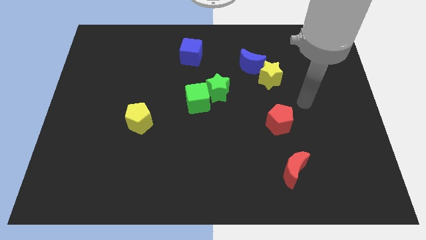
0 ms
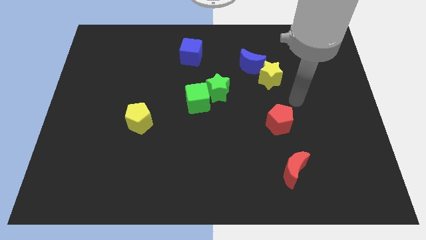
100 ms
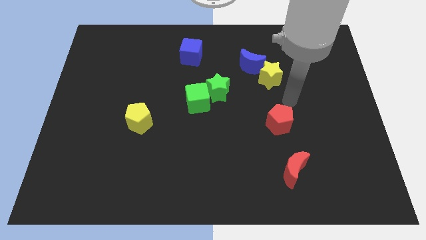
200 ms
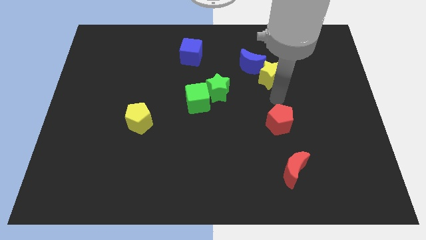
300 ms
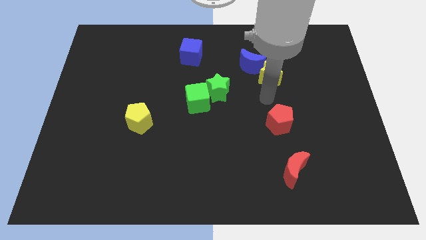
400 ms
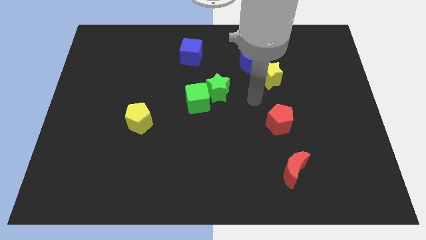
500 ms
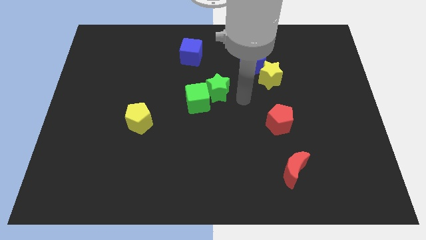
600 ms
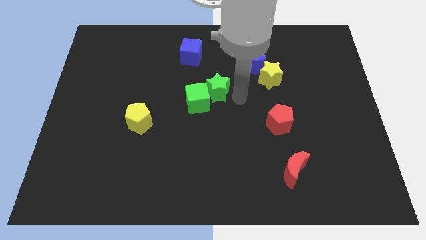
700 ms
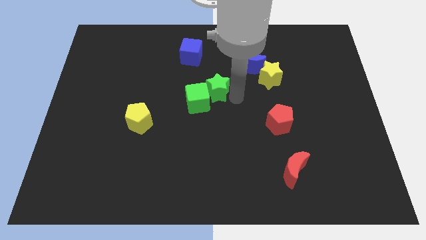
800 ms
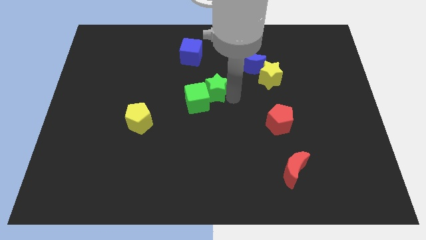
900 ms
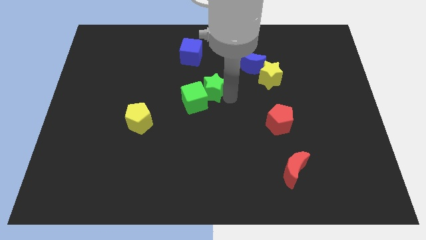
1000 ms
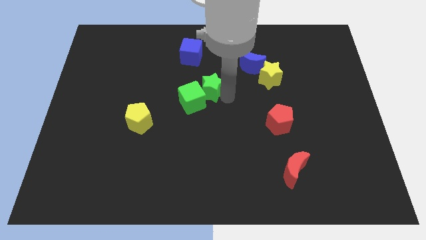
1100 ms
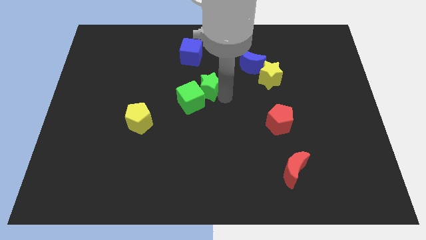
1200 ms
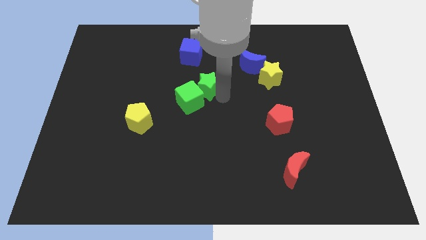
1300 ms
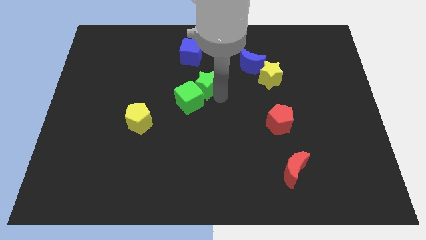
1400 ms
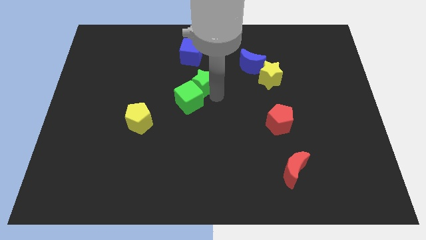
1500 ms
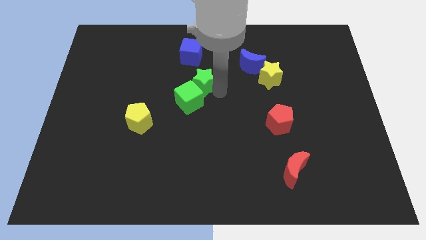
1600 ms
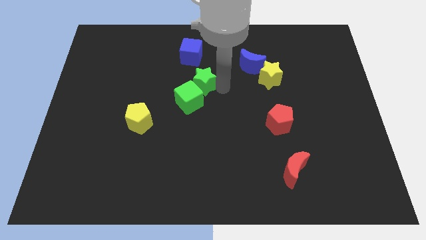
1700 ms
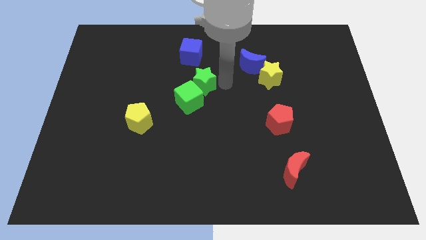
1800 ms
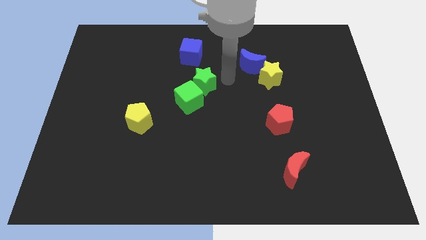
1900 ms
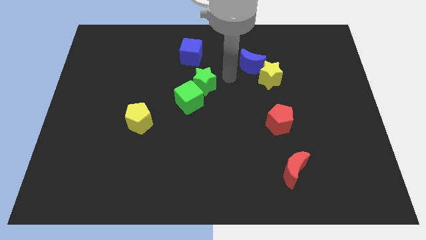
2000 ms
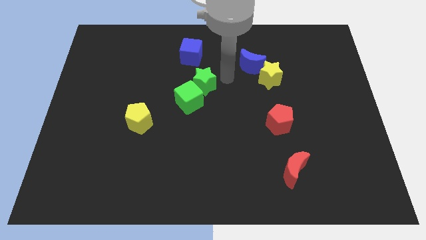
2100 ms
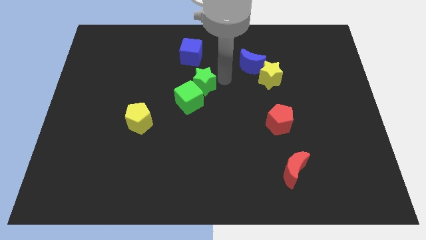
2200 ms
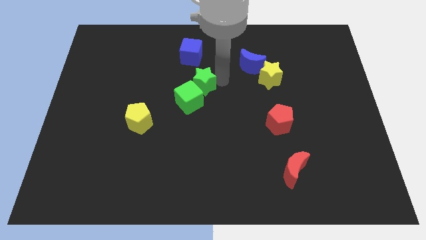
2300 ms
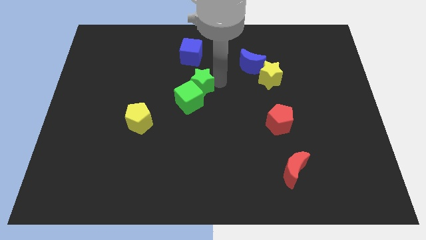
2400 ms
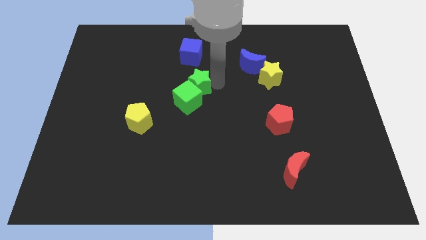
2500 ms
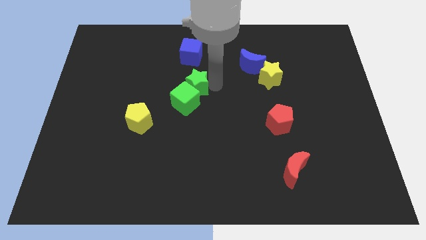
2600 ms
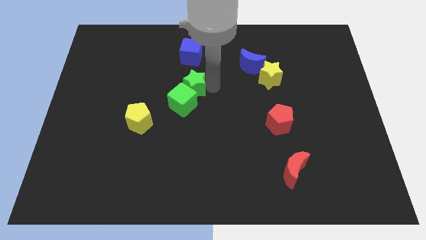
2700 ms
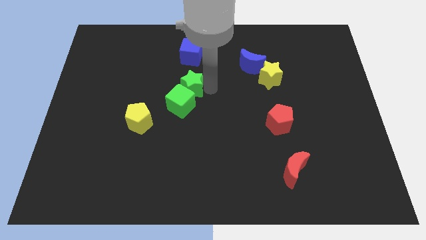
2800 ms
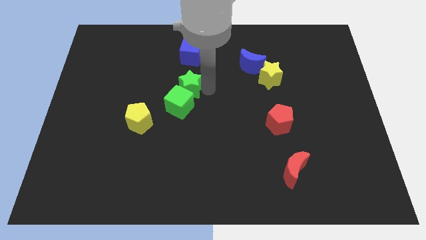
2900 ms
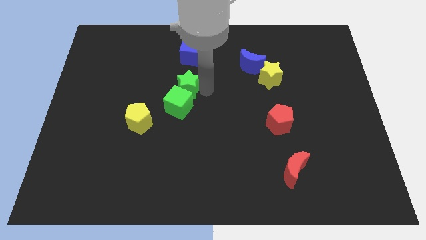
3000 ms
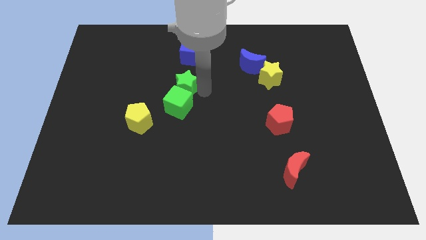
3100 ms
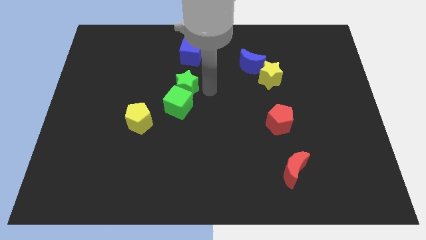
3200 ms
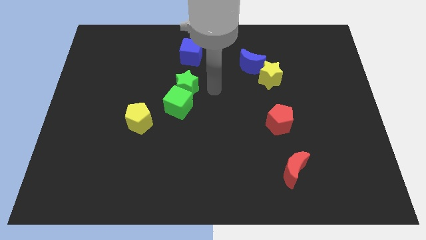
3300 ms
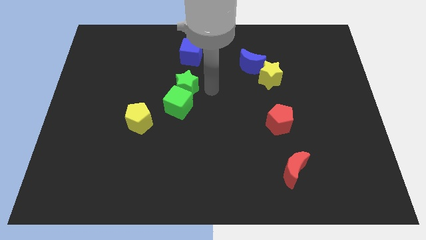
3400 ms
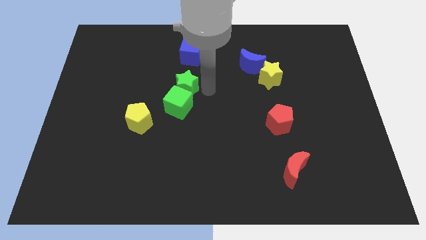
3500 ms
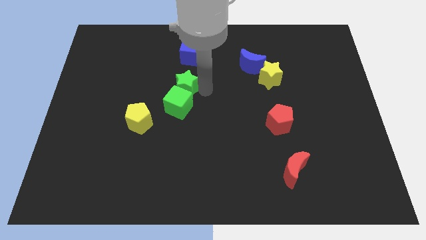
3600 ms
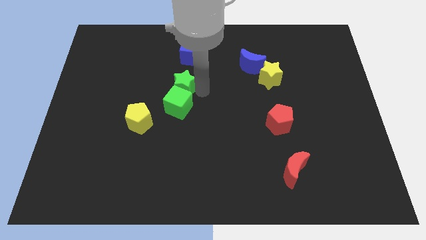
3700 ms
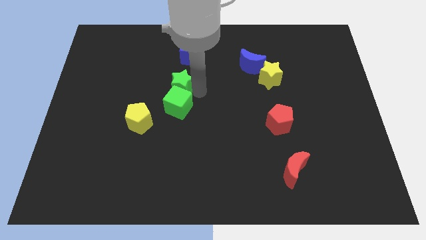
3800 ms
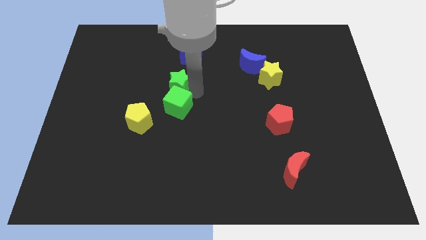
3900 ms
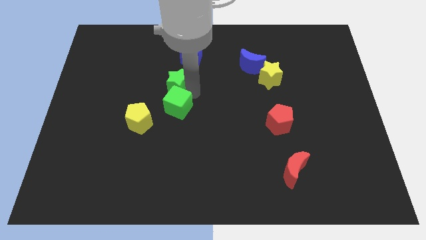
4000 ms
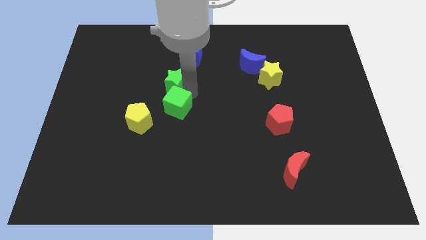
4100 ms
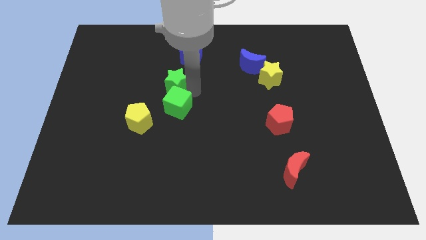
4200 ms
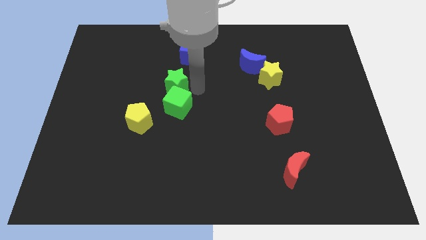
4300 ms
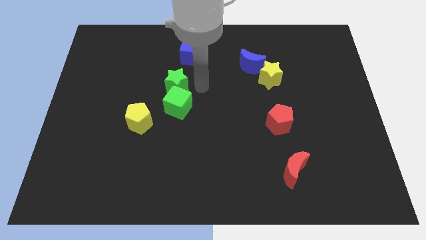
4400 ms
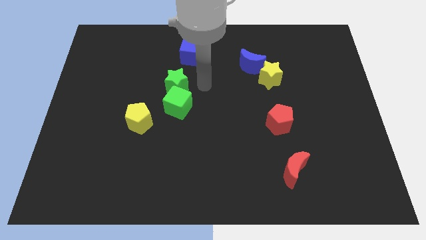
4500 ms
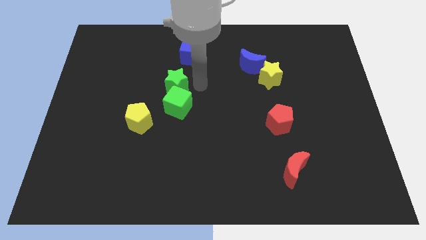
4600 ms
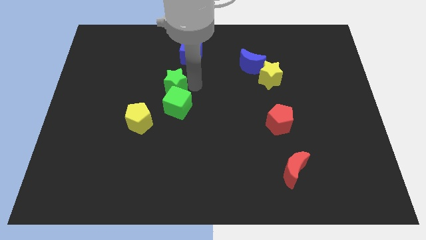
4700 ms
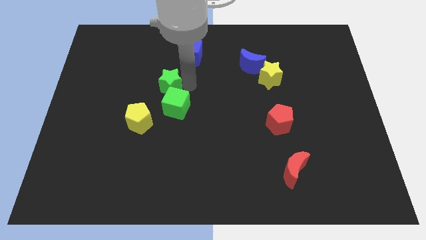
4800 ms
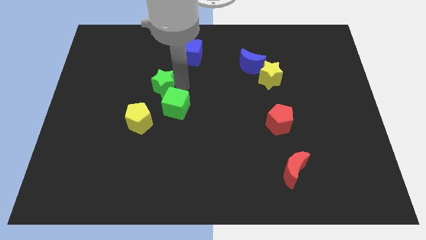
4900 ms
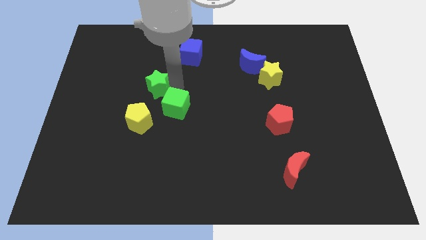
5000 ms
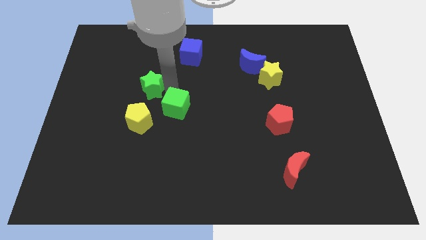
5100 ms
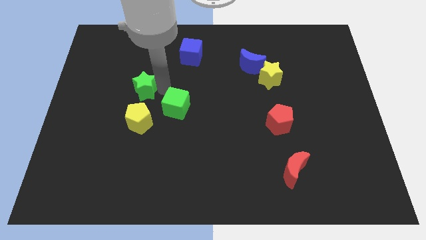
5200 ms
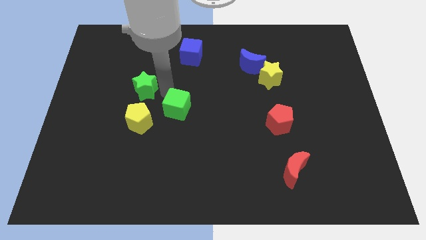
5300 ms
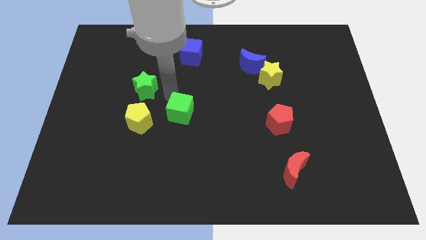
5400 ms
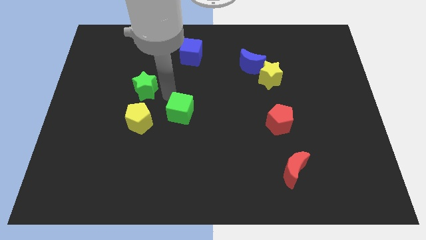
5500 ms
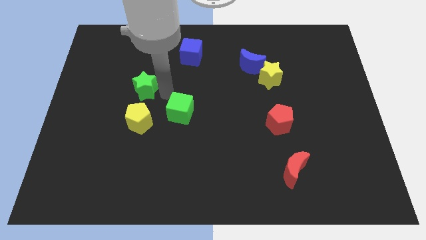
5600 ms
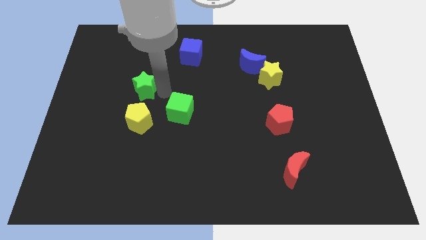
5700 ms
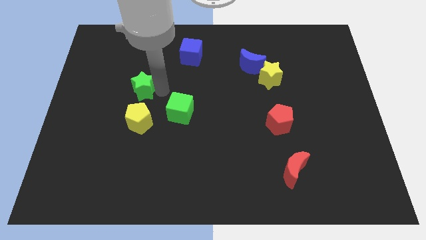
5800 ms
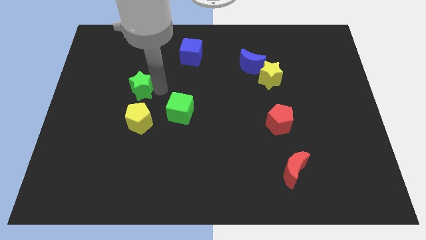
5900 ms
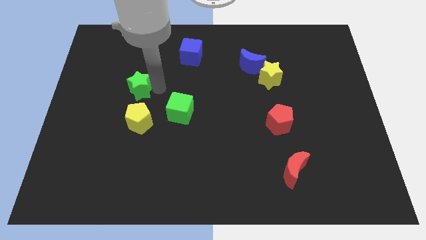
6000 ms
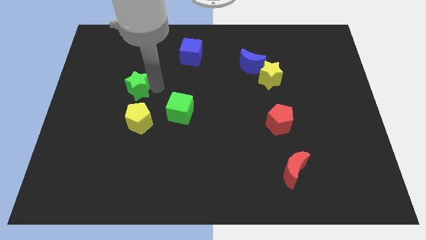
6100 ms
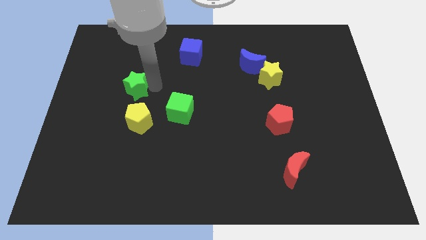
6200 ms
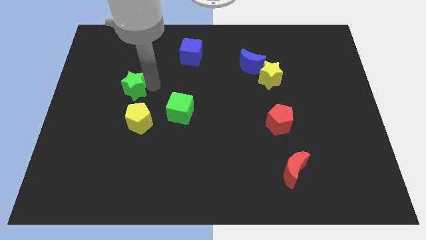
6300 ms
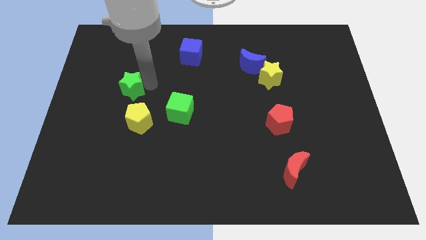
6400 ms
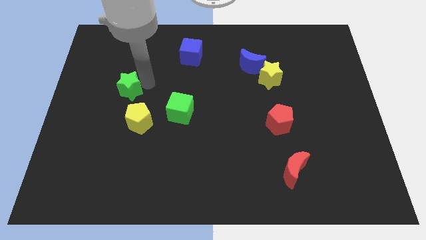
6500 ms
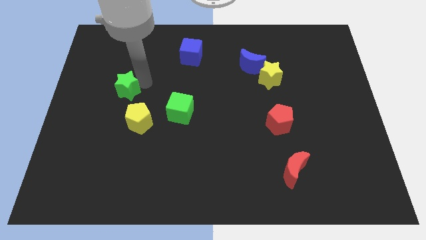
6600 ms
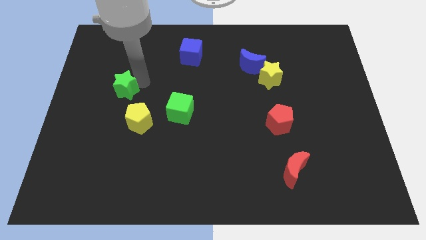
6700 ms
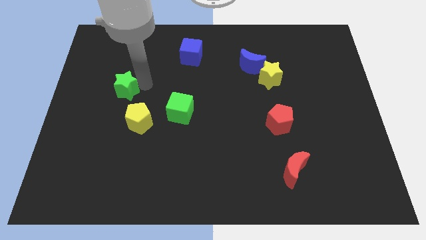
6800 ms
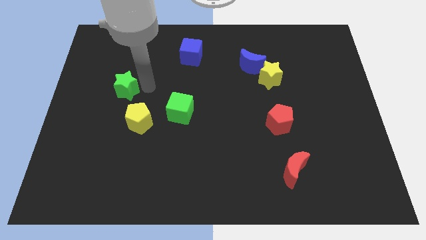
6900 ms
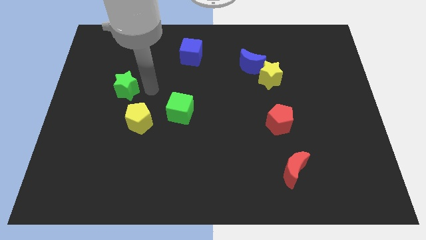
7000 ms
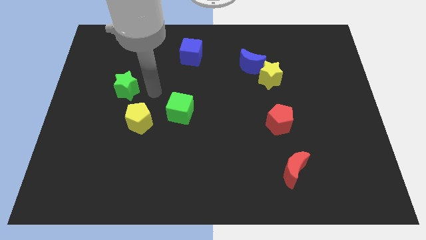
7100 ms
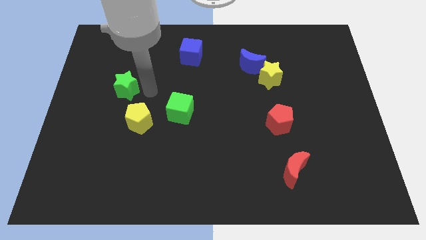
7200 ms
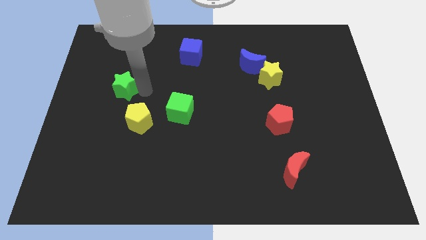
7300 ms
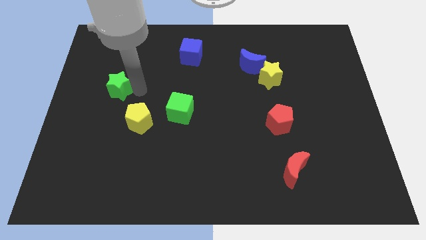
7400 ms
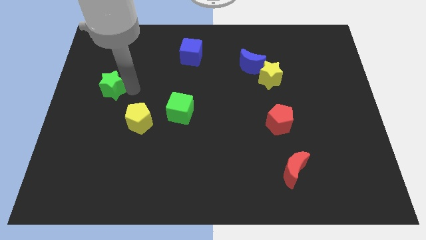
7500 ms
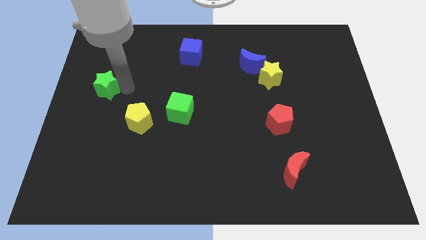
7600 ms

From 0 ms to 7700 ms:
slide the green star to the left side of the board
